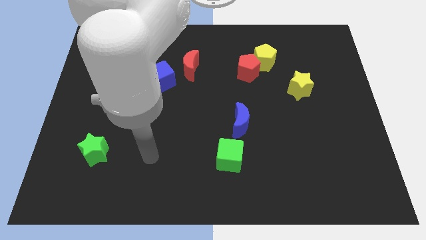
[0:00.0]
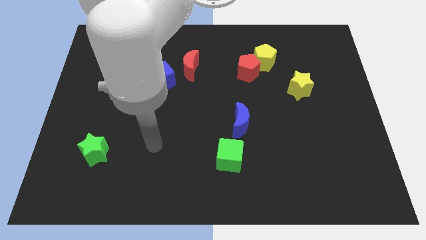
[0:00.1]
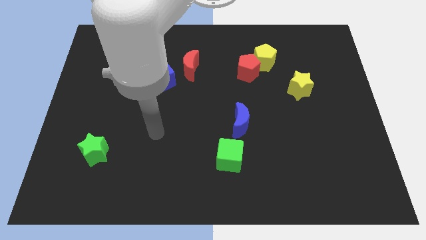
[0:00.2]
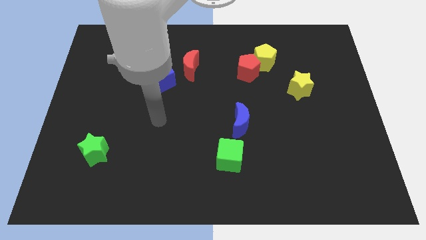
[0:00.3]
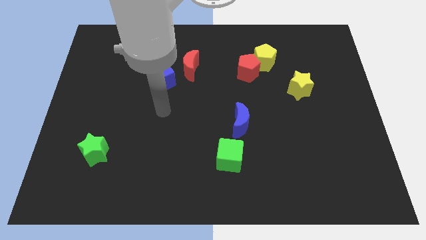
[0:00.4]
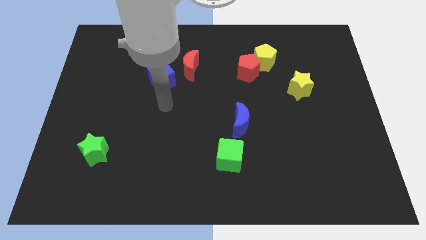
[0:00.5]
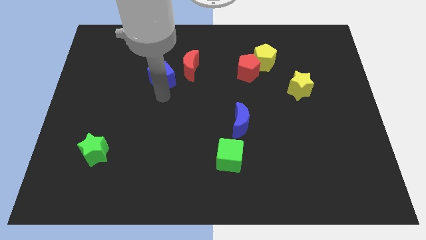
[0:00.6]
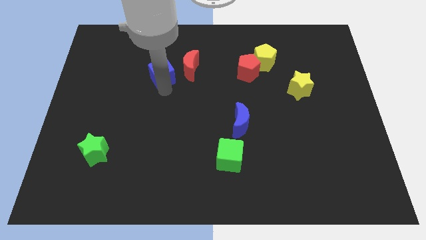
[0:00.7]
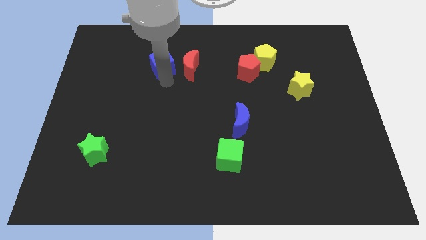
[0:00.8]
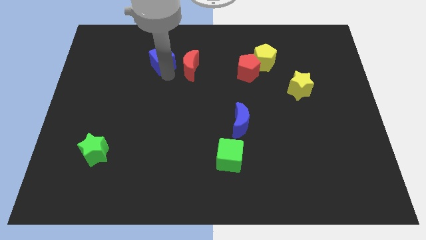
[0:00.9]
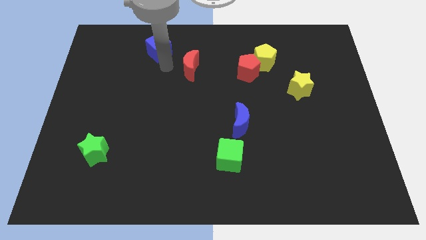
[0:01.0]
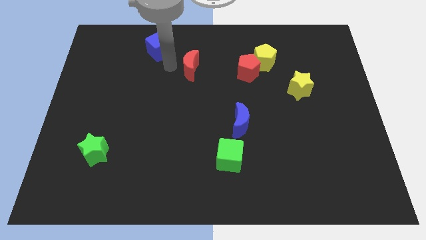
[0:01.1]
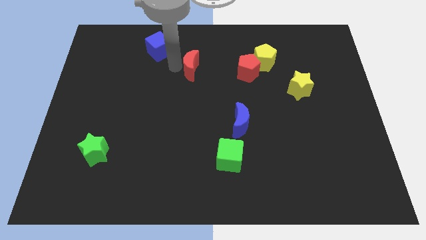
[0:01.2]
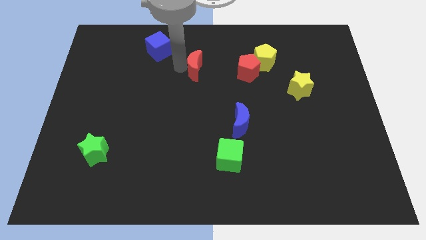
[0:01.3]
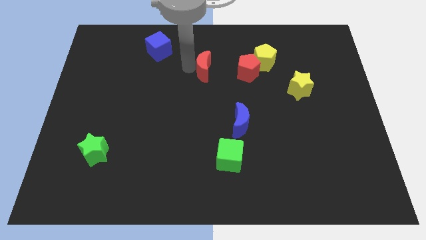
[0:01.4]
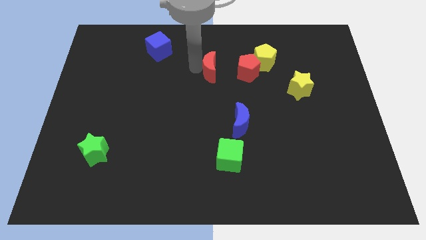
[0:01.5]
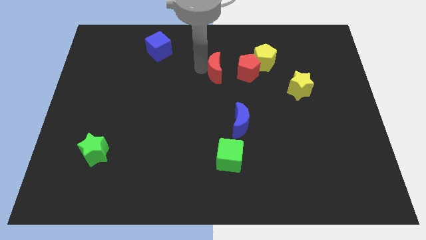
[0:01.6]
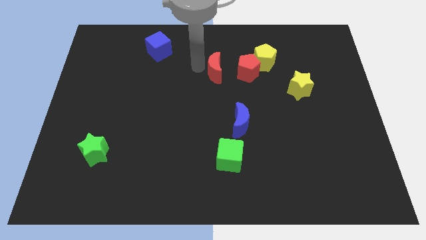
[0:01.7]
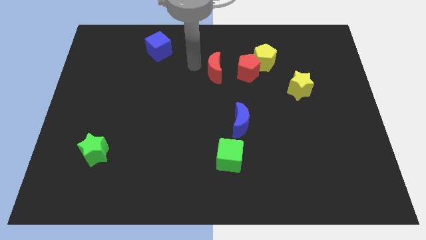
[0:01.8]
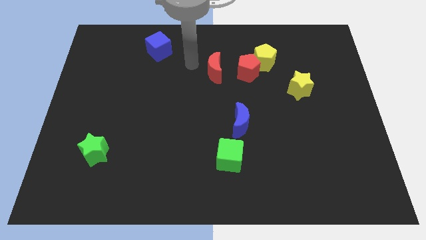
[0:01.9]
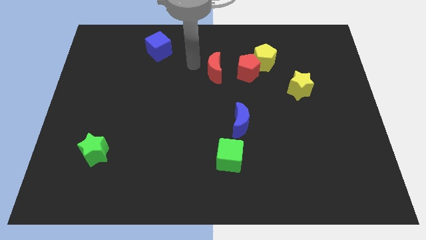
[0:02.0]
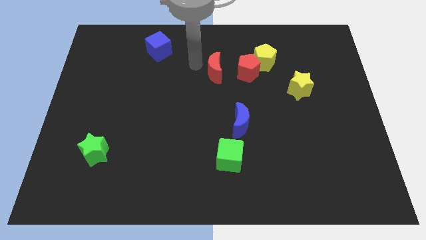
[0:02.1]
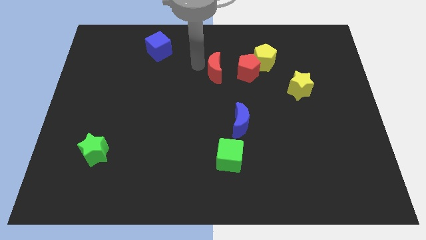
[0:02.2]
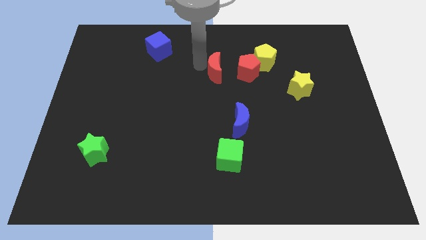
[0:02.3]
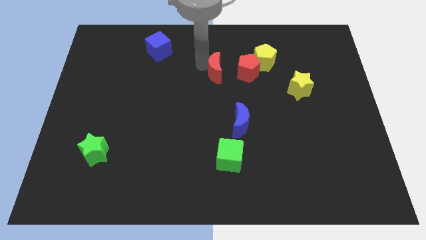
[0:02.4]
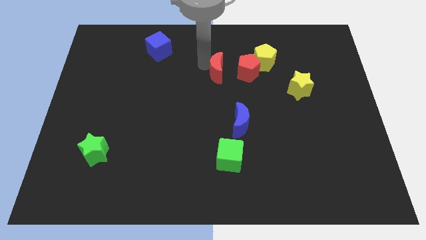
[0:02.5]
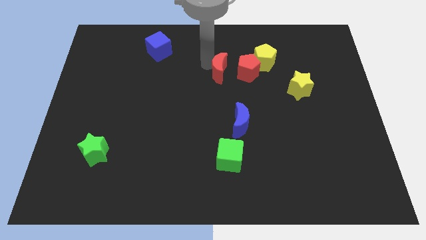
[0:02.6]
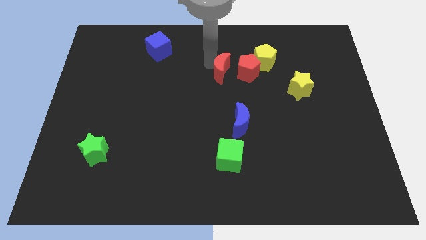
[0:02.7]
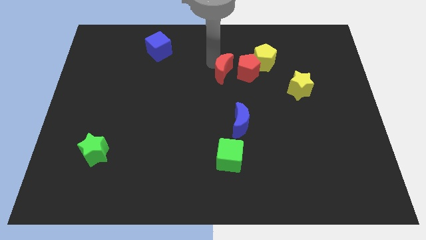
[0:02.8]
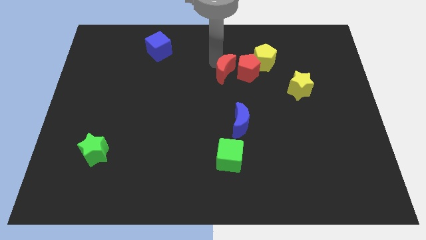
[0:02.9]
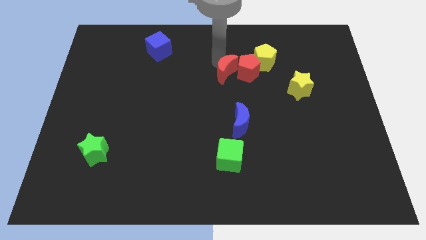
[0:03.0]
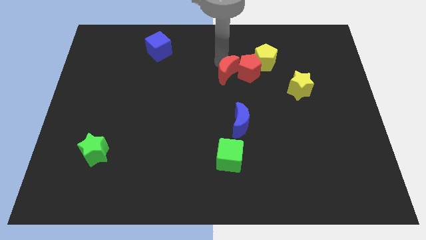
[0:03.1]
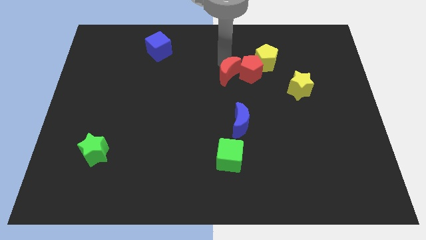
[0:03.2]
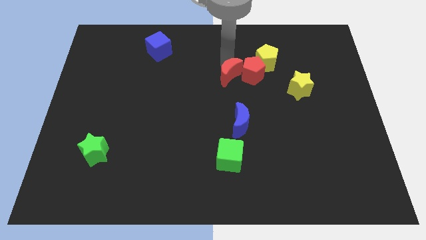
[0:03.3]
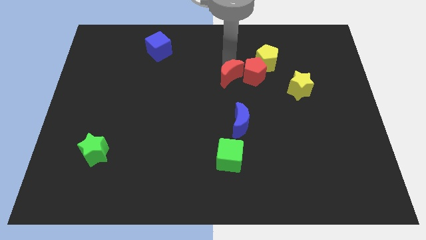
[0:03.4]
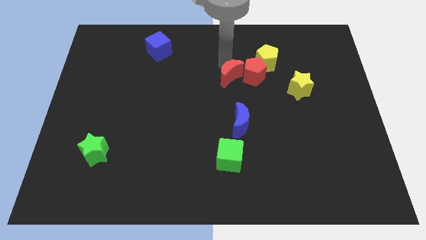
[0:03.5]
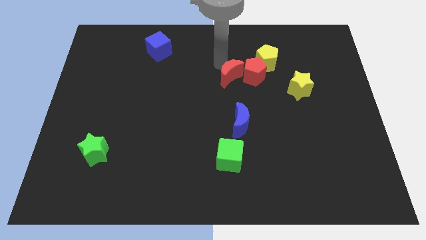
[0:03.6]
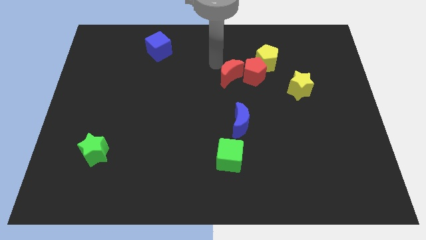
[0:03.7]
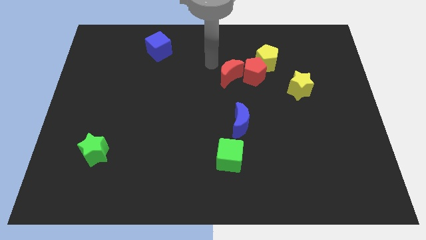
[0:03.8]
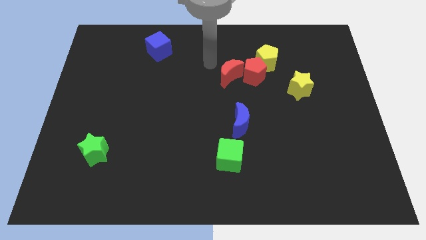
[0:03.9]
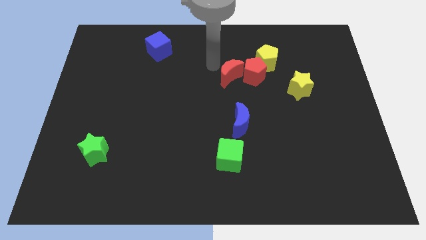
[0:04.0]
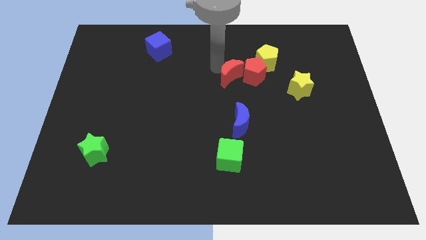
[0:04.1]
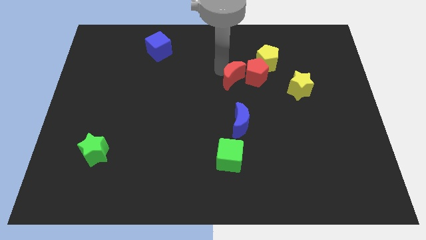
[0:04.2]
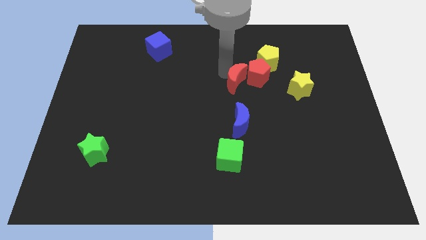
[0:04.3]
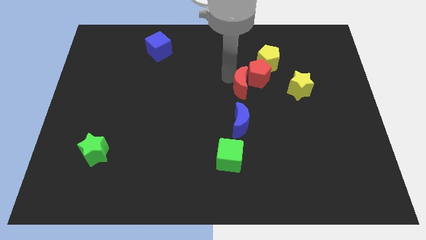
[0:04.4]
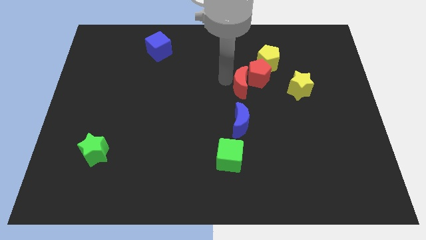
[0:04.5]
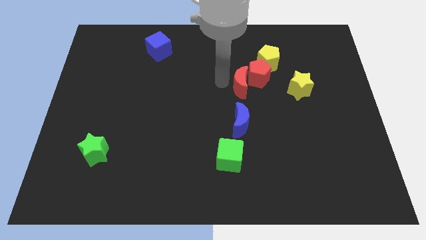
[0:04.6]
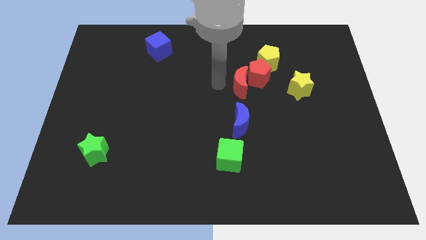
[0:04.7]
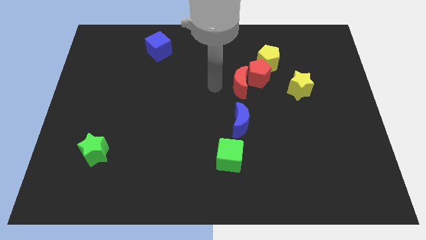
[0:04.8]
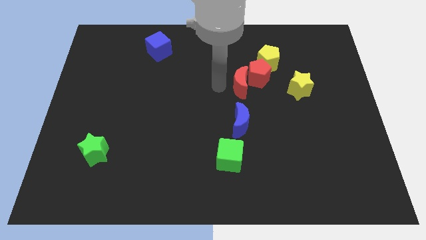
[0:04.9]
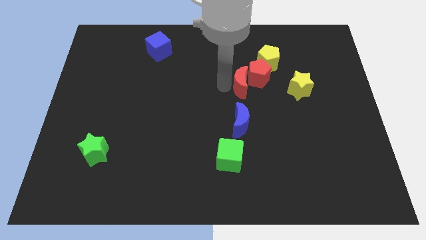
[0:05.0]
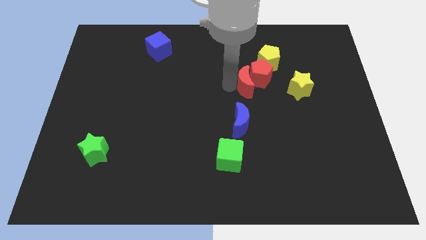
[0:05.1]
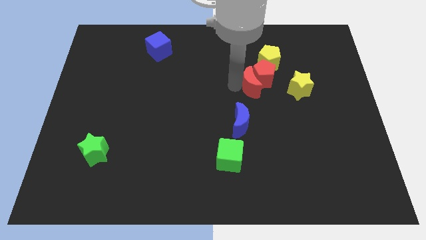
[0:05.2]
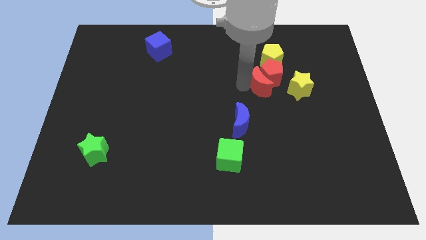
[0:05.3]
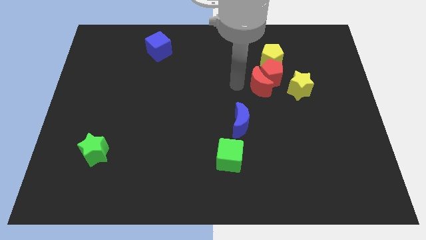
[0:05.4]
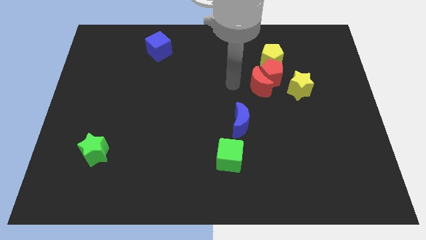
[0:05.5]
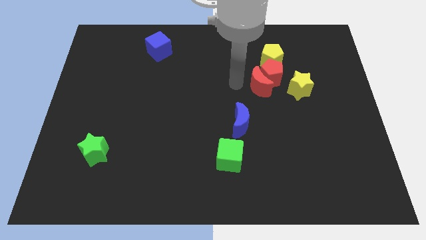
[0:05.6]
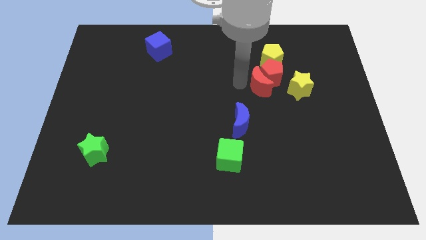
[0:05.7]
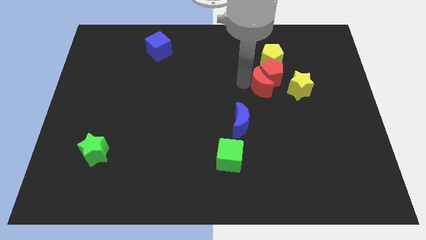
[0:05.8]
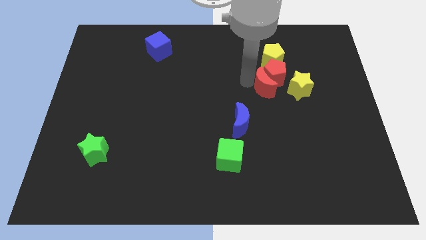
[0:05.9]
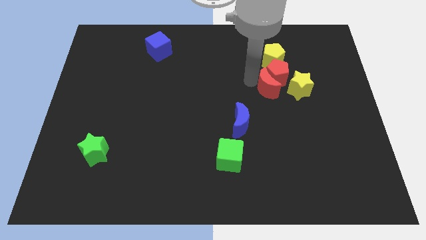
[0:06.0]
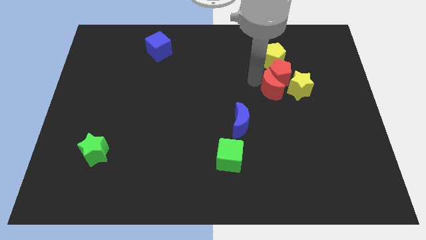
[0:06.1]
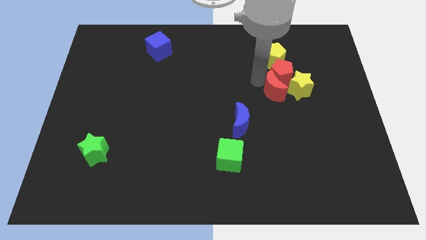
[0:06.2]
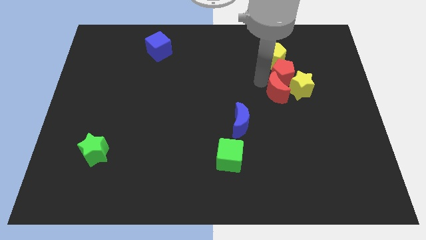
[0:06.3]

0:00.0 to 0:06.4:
put the red moon close to the yellow star

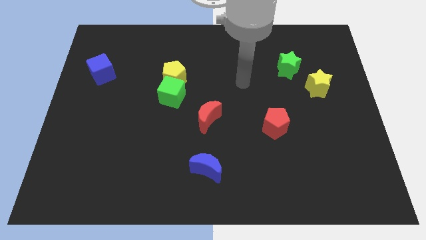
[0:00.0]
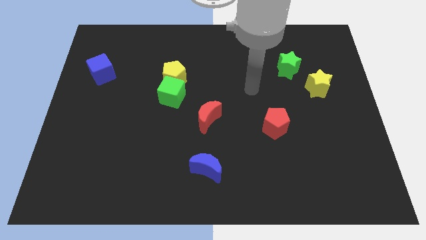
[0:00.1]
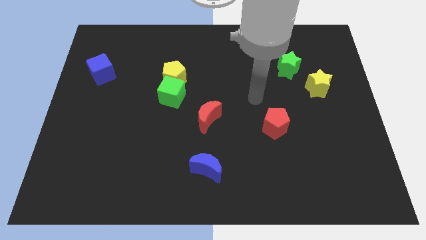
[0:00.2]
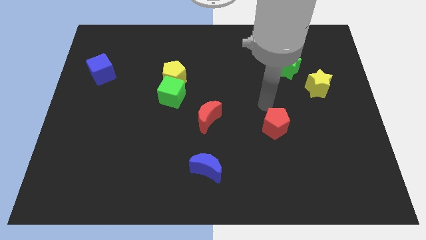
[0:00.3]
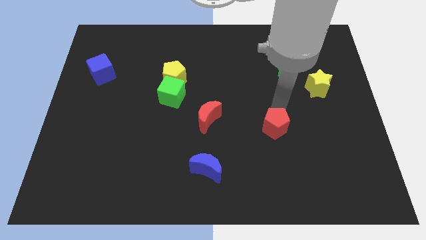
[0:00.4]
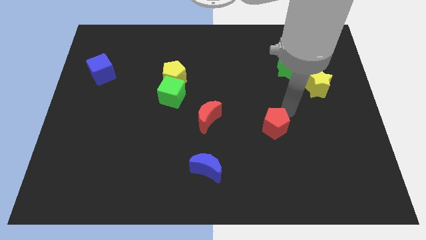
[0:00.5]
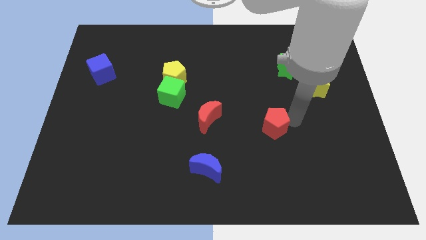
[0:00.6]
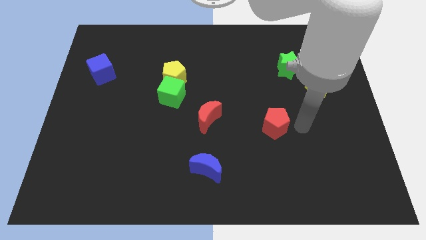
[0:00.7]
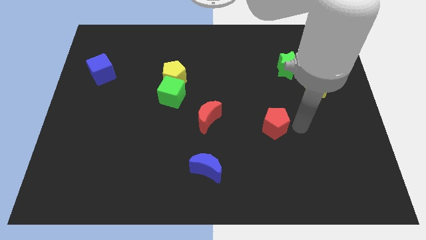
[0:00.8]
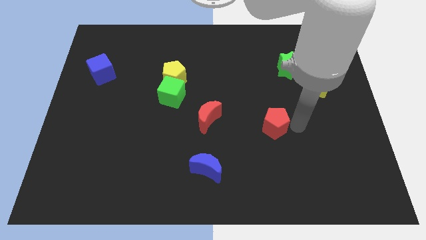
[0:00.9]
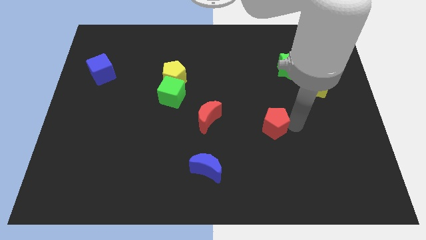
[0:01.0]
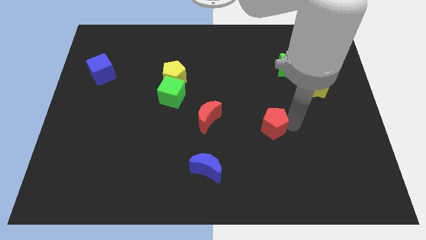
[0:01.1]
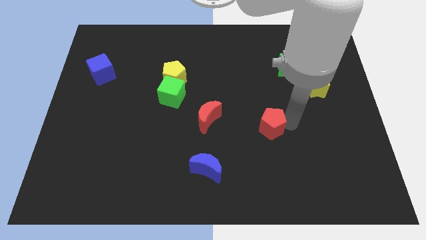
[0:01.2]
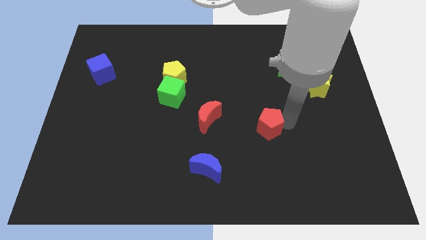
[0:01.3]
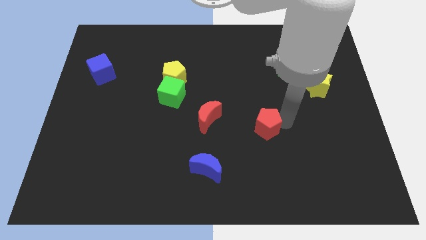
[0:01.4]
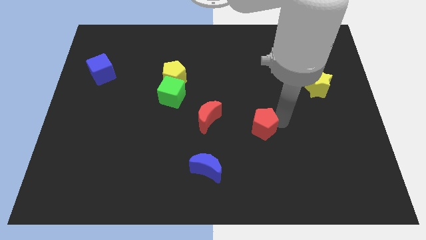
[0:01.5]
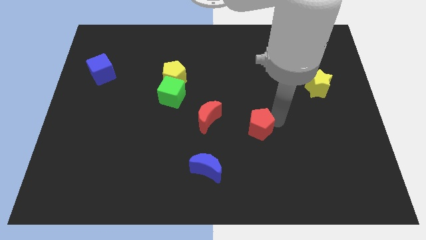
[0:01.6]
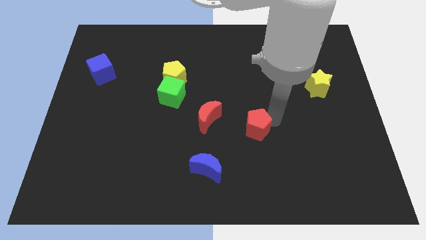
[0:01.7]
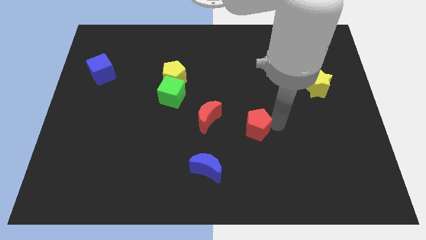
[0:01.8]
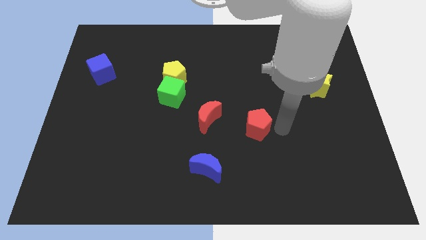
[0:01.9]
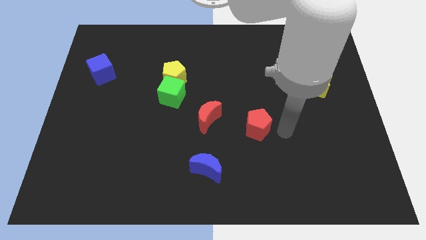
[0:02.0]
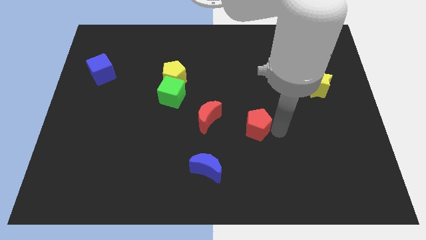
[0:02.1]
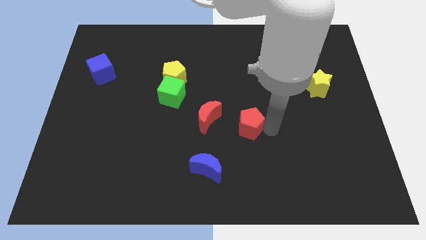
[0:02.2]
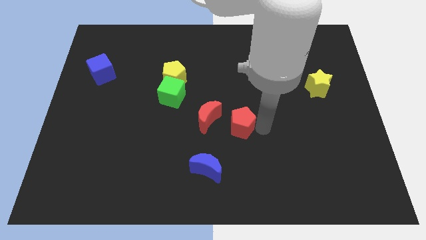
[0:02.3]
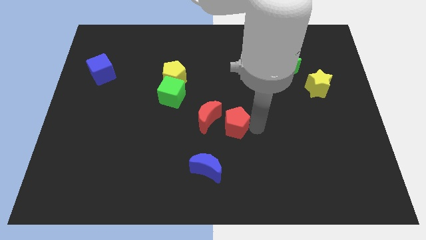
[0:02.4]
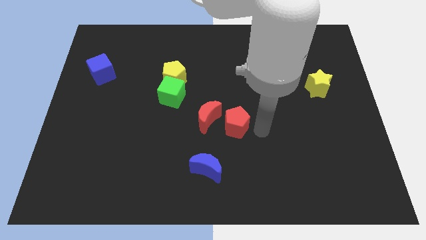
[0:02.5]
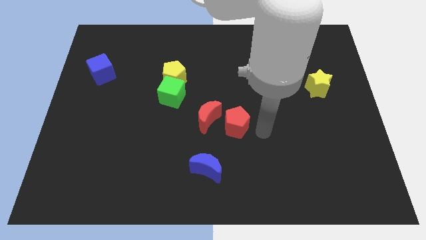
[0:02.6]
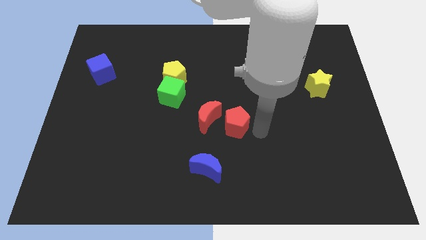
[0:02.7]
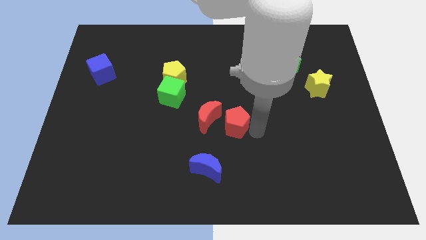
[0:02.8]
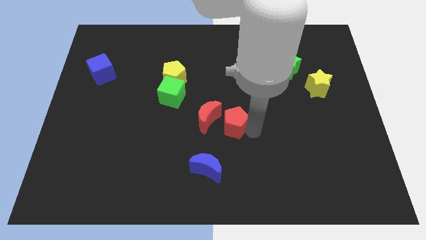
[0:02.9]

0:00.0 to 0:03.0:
push the red pentagon towards the red moon
